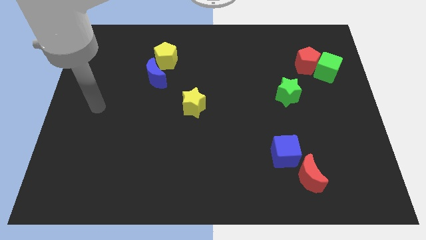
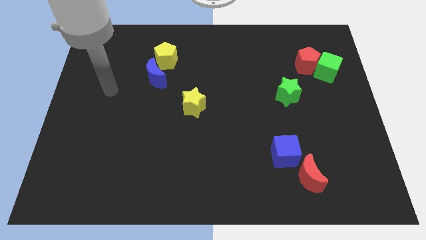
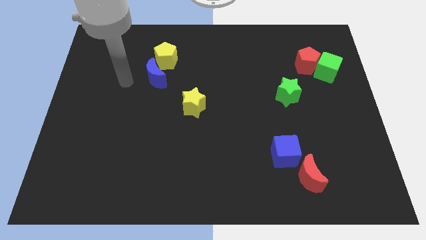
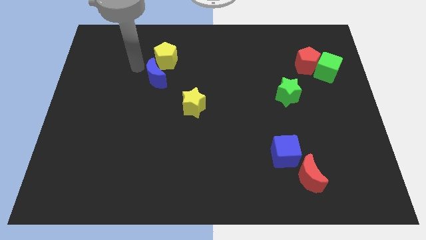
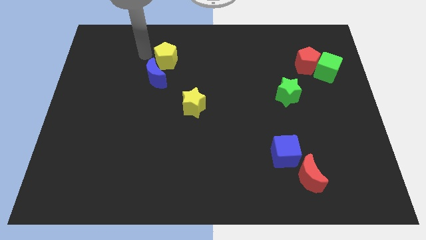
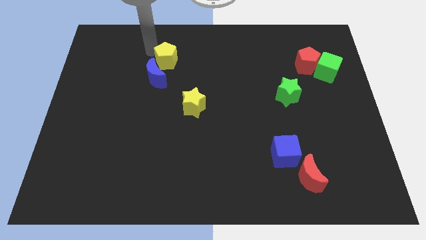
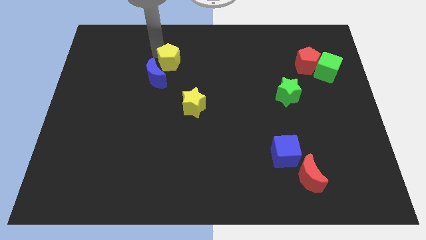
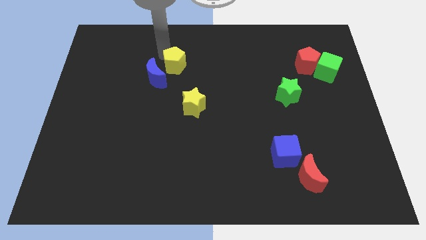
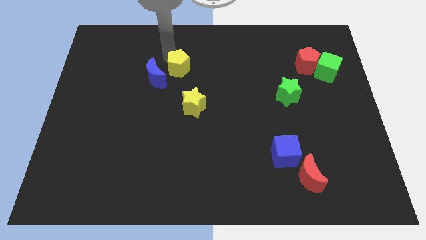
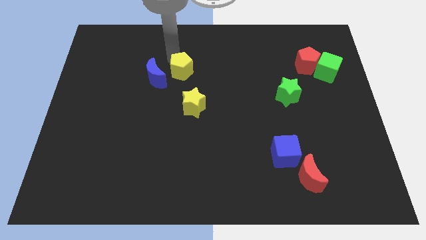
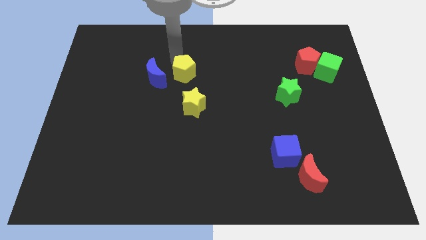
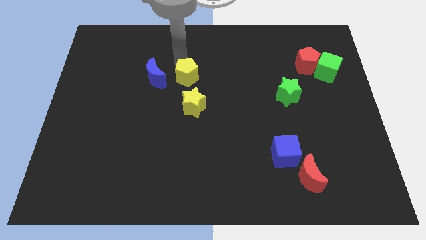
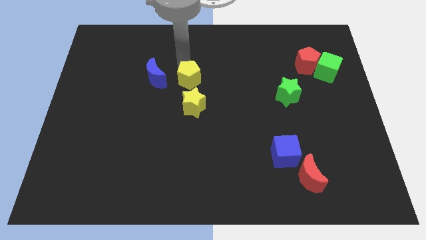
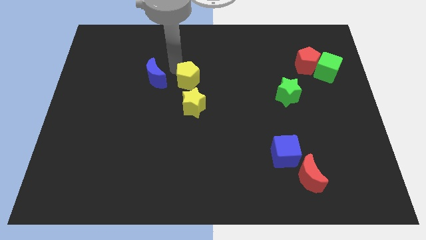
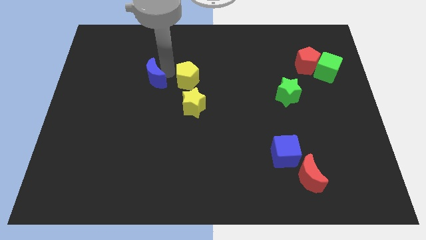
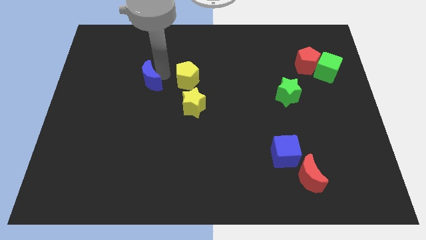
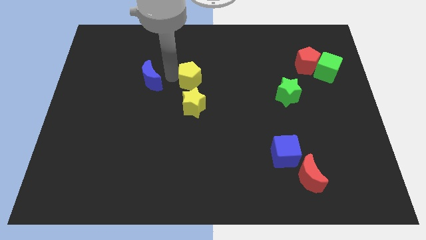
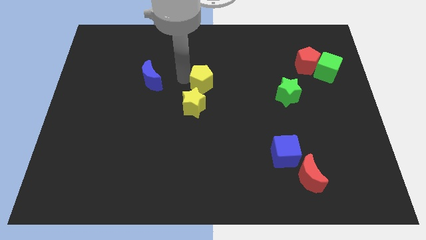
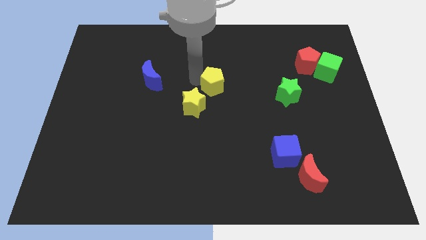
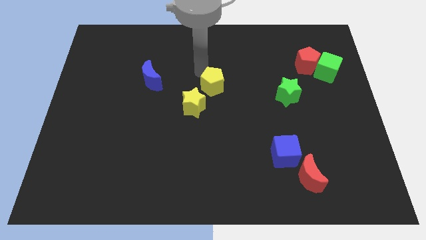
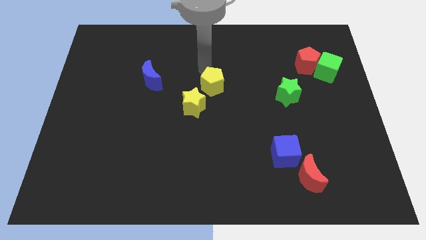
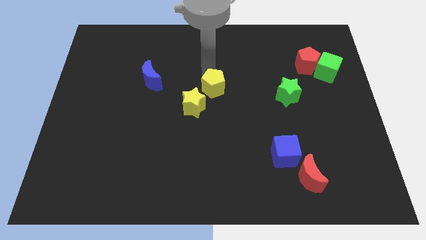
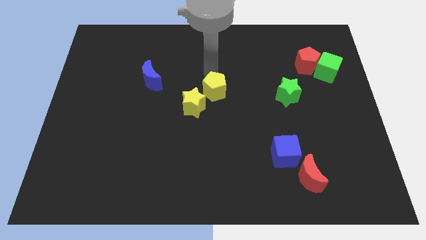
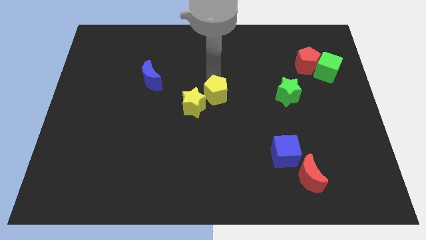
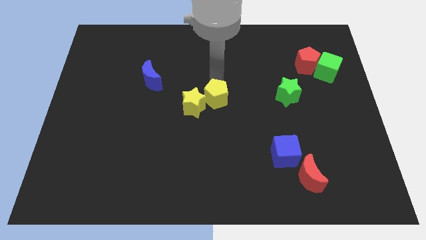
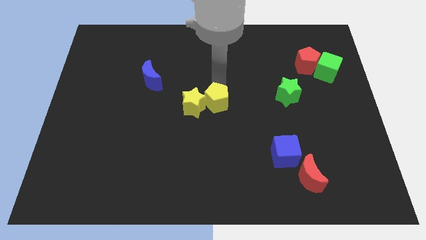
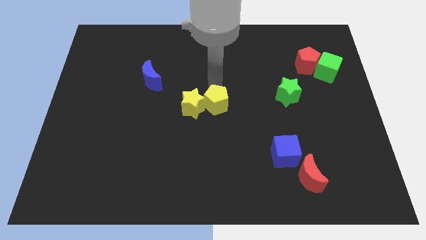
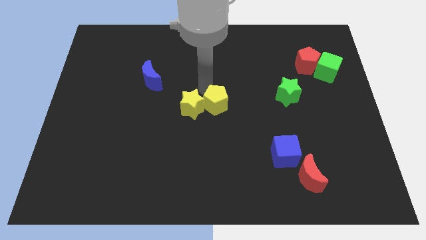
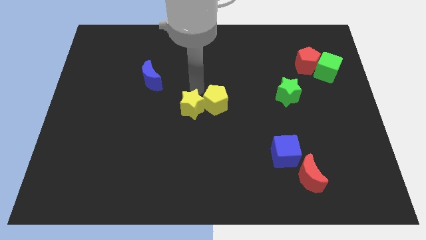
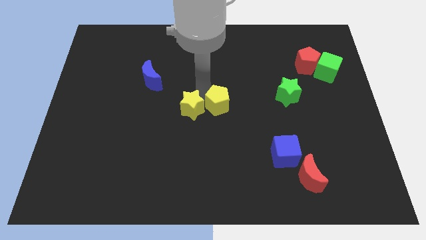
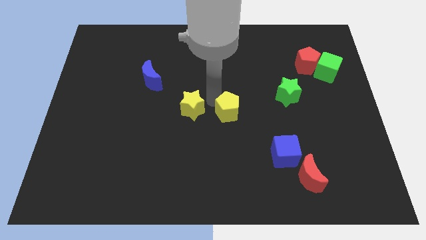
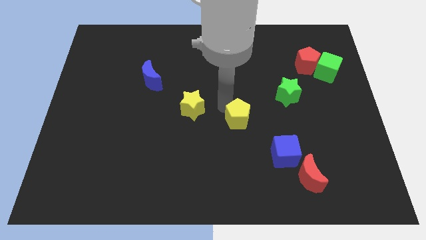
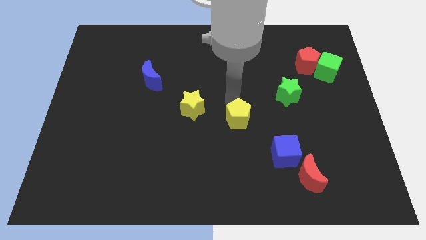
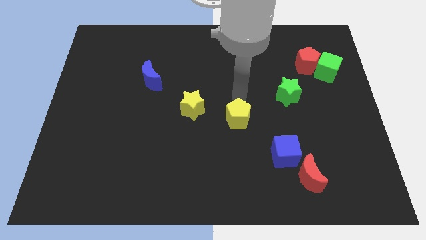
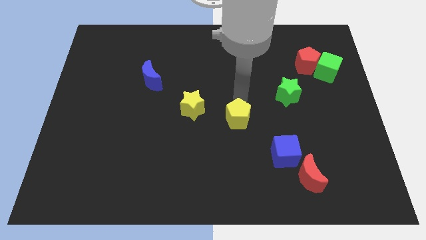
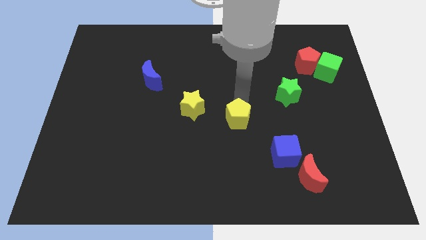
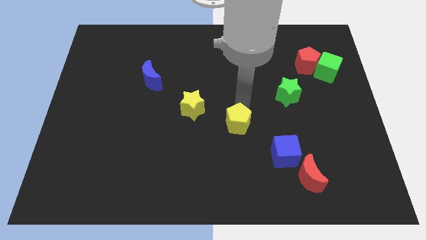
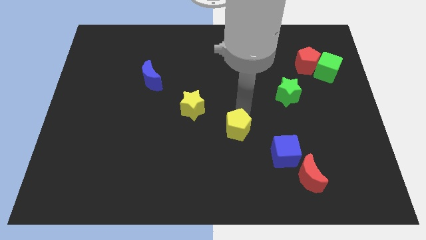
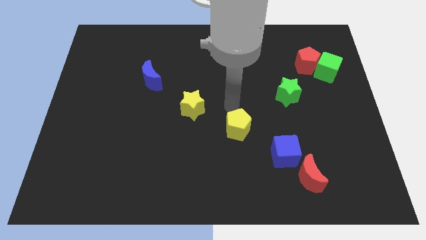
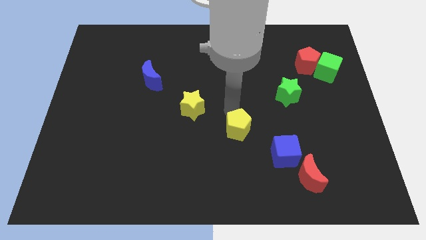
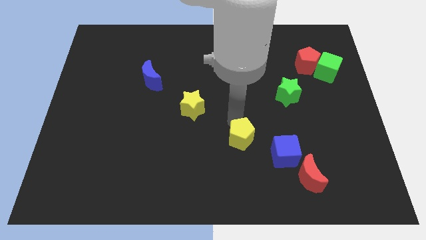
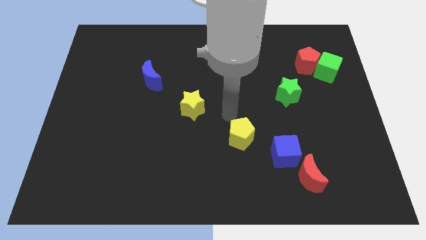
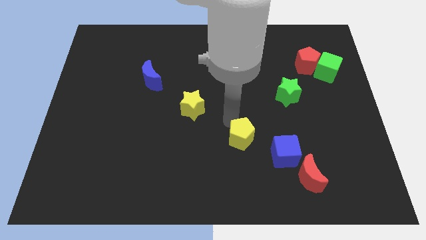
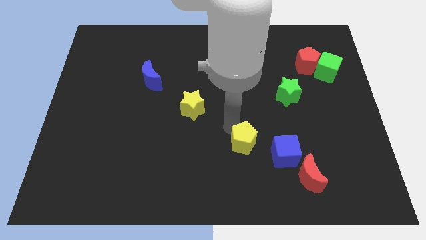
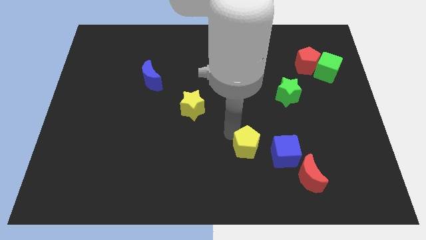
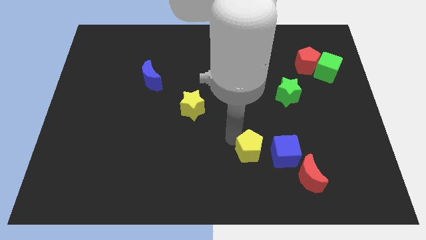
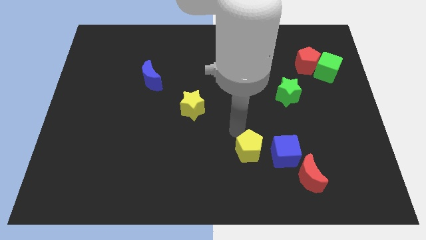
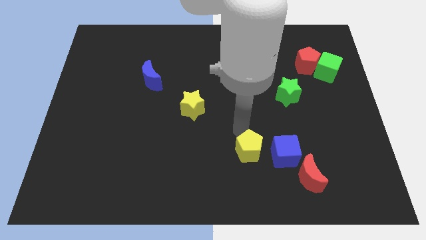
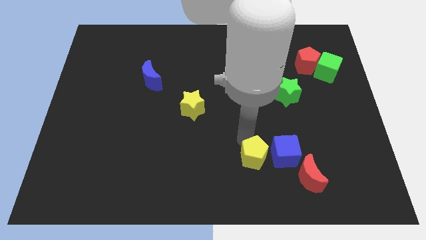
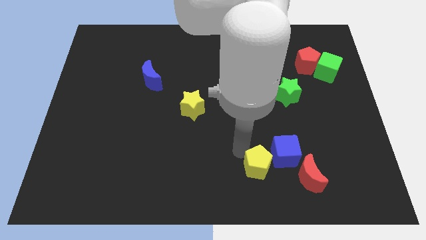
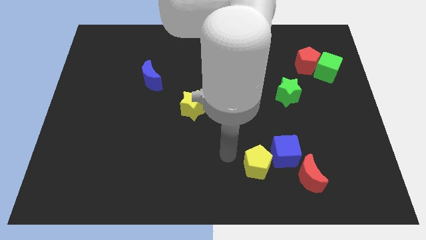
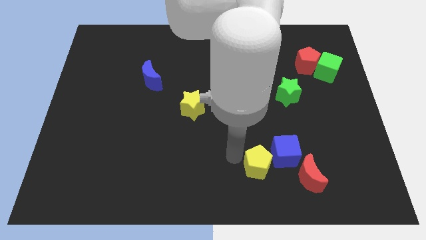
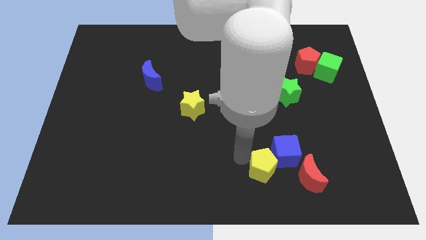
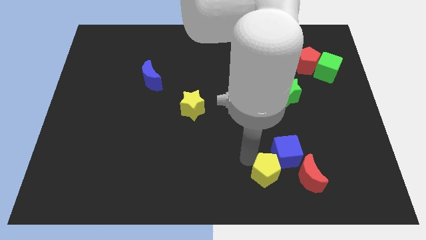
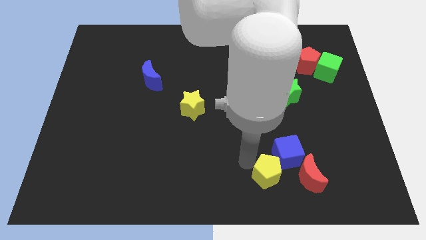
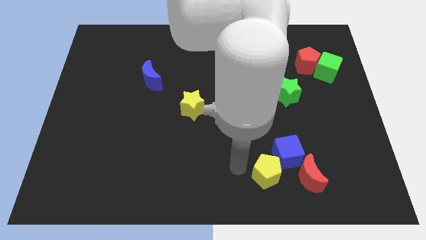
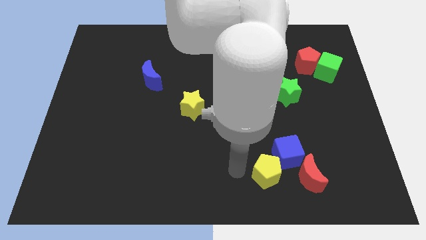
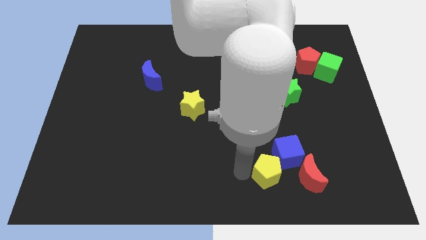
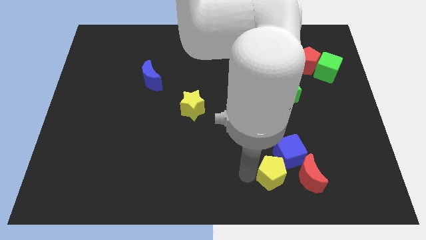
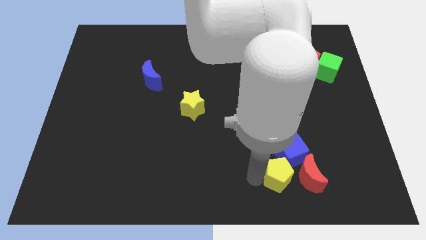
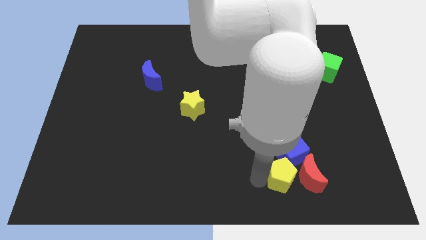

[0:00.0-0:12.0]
slide the yellow pentagon towards the red moon

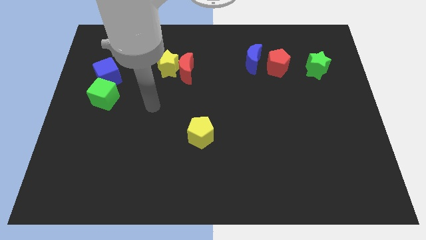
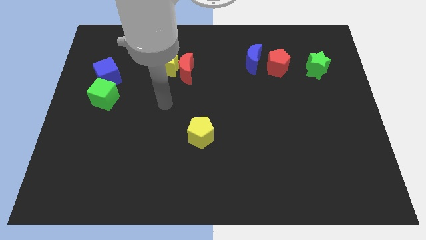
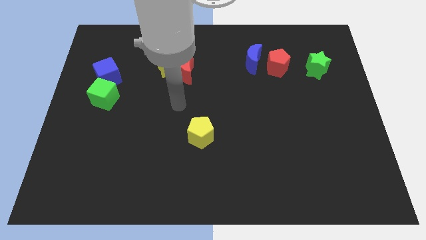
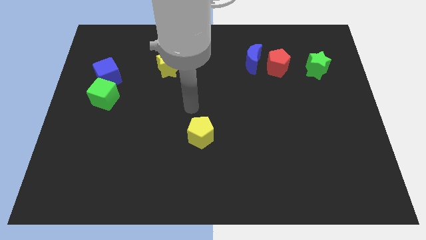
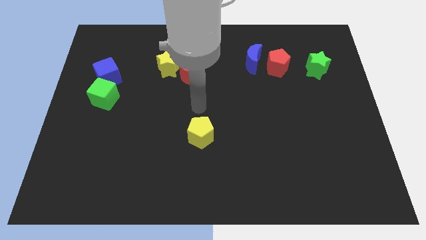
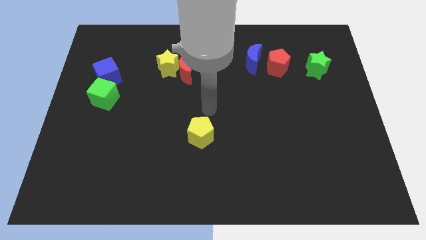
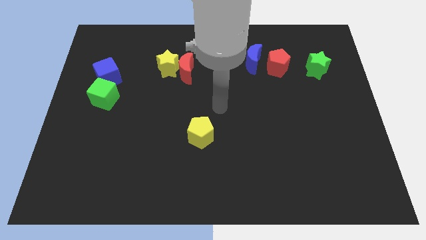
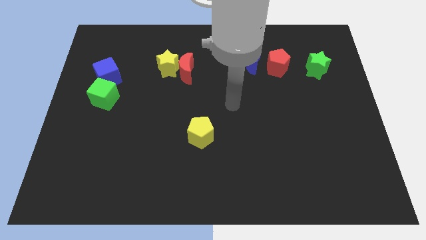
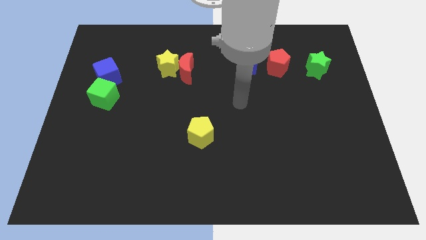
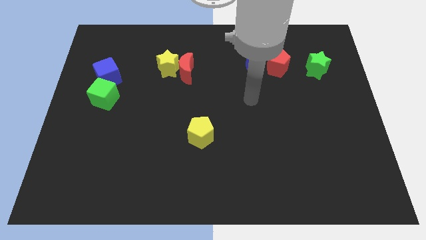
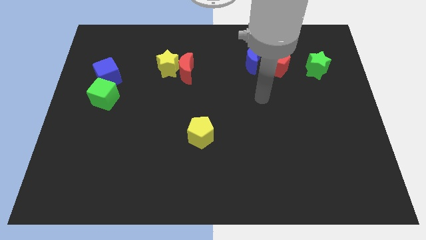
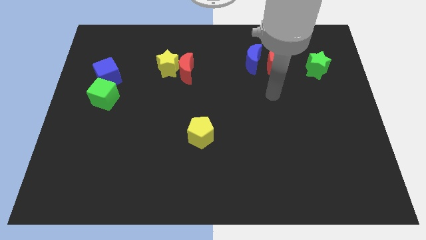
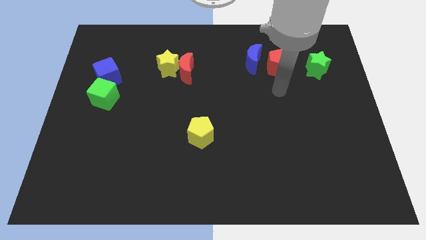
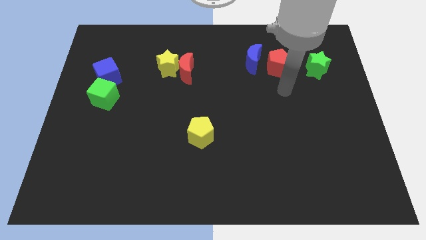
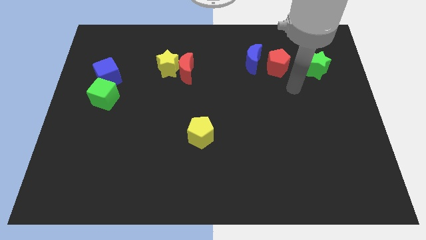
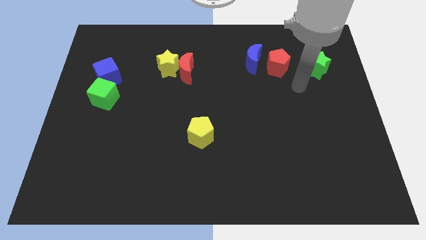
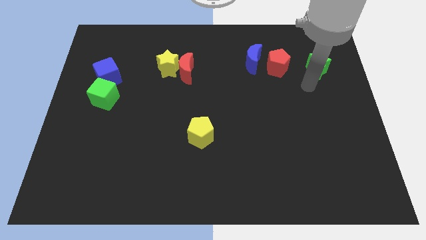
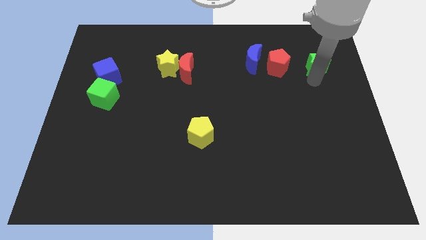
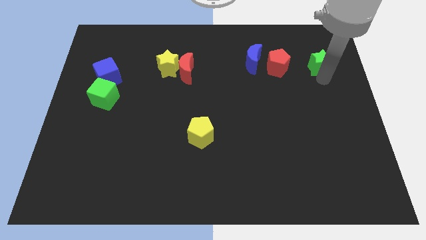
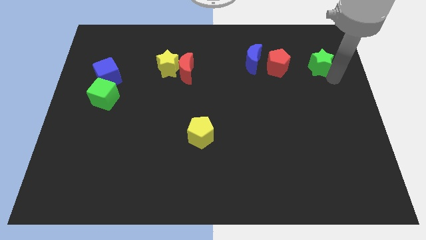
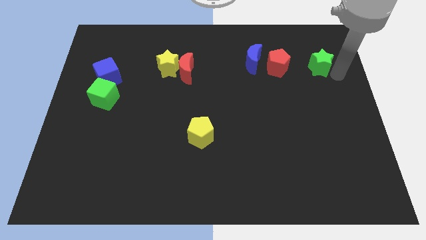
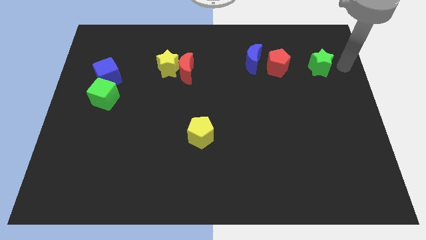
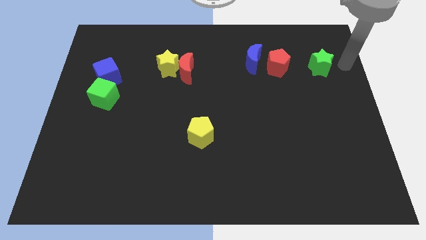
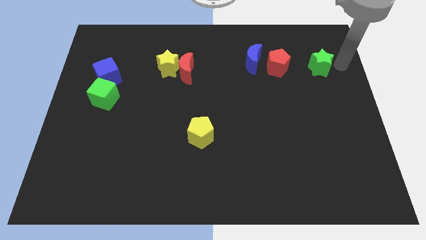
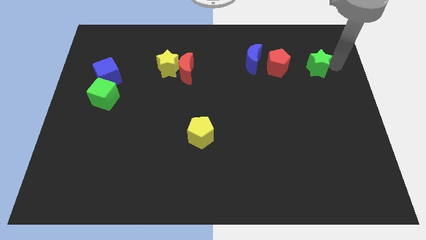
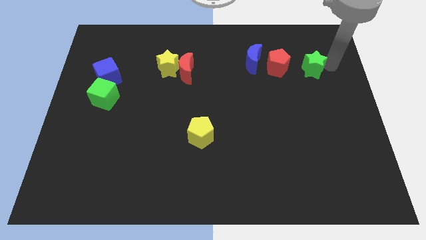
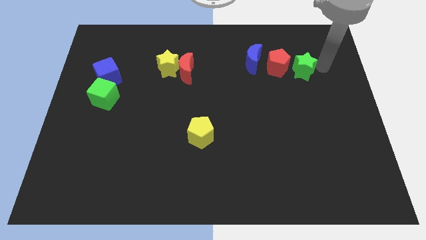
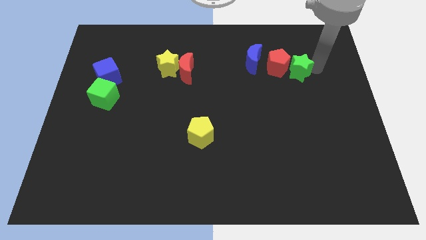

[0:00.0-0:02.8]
move the green star close to the red pentagon
